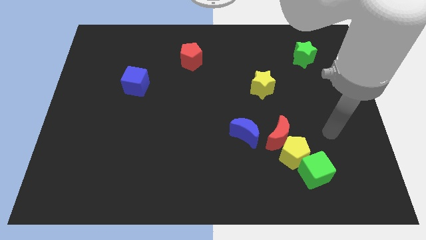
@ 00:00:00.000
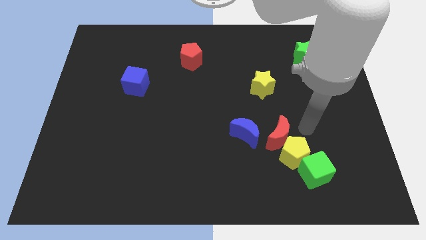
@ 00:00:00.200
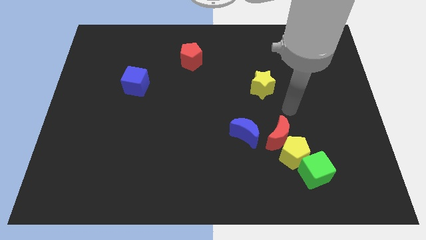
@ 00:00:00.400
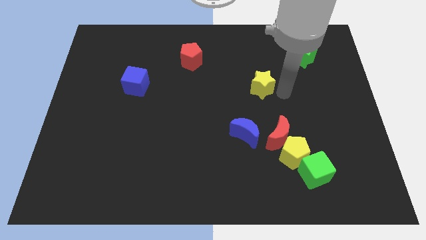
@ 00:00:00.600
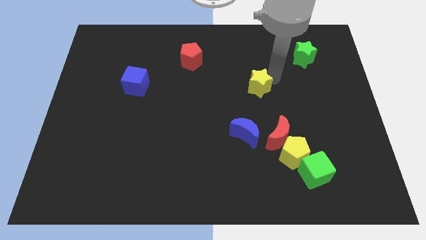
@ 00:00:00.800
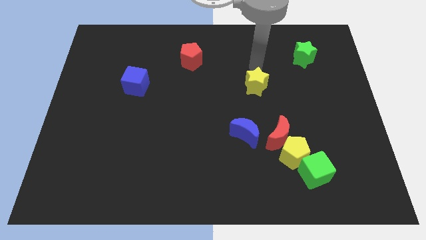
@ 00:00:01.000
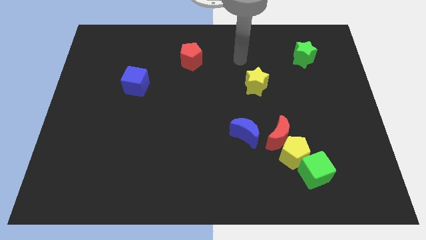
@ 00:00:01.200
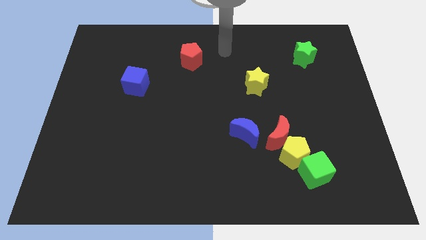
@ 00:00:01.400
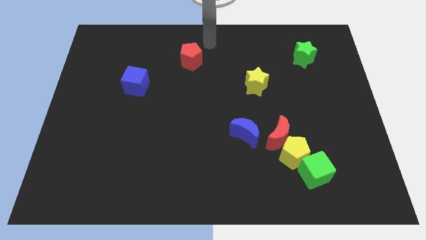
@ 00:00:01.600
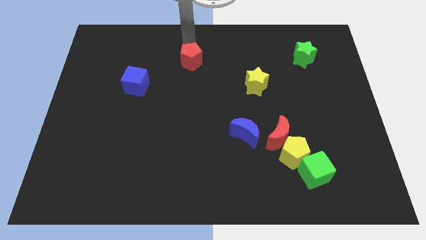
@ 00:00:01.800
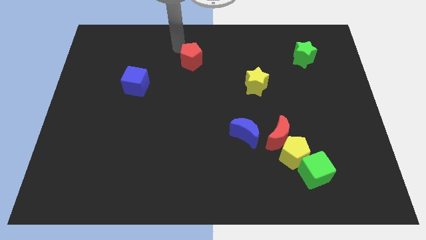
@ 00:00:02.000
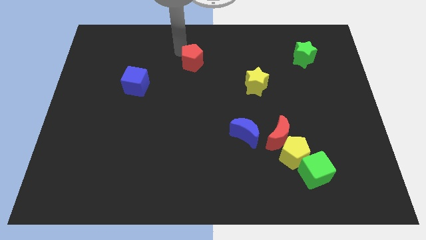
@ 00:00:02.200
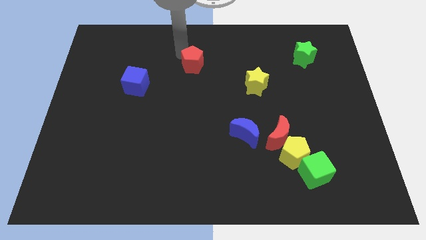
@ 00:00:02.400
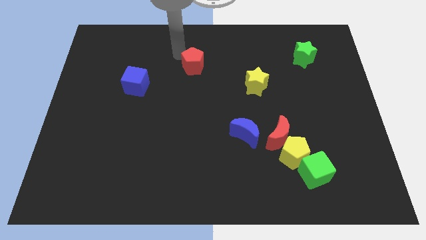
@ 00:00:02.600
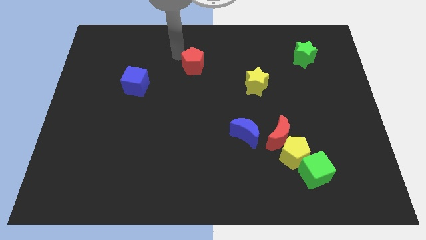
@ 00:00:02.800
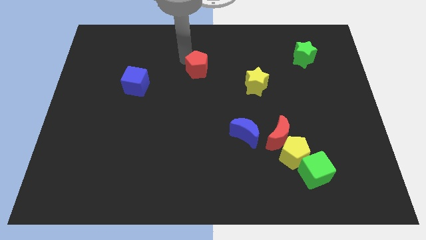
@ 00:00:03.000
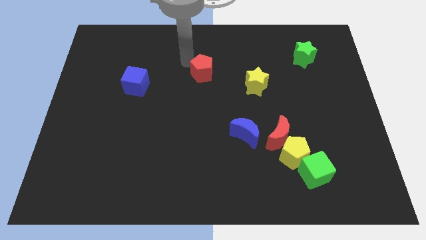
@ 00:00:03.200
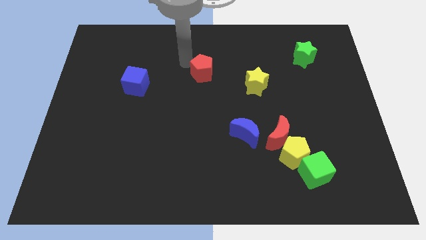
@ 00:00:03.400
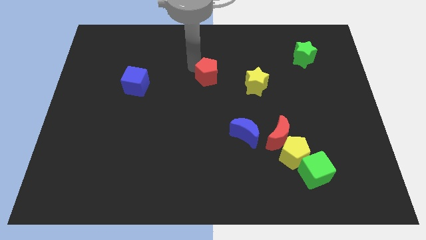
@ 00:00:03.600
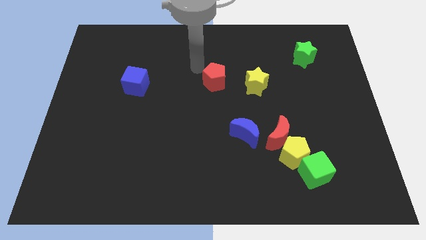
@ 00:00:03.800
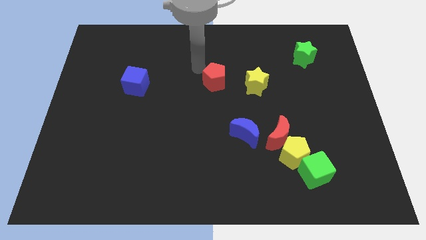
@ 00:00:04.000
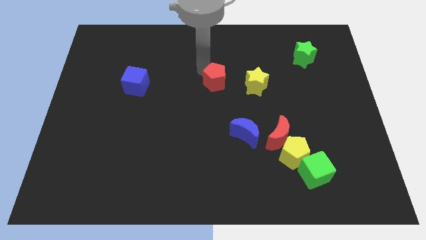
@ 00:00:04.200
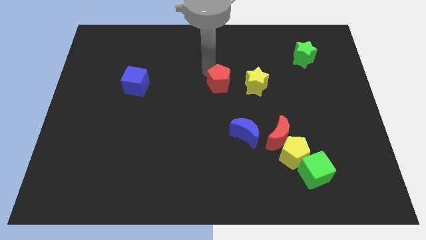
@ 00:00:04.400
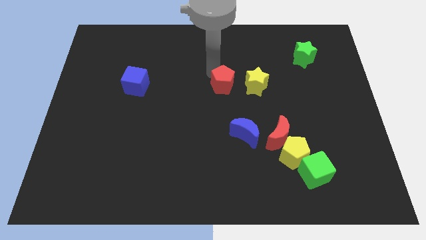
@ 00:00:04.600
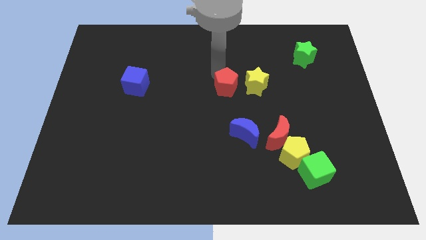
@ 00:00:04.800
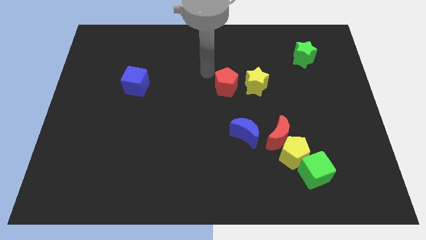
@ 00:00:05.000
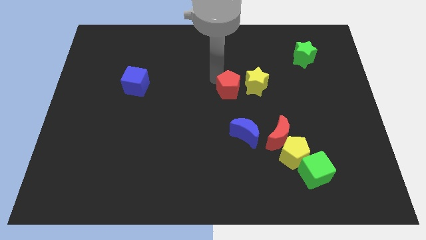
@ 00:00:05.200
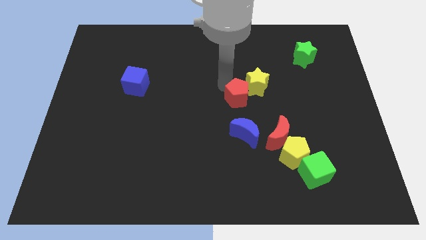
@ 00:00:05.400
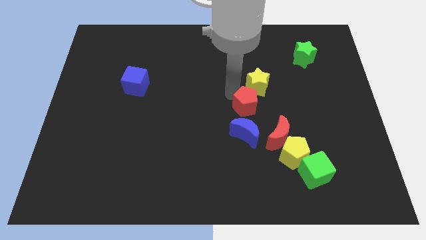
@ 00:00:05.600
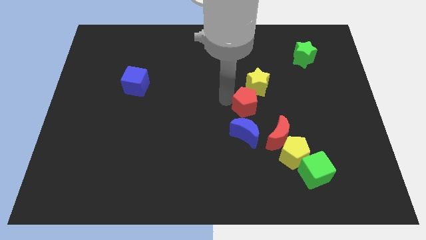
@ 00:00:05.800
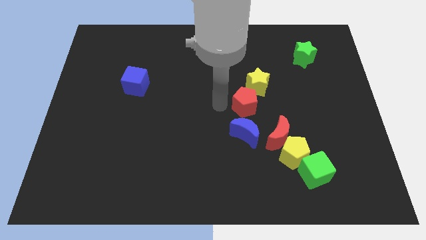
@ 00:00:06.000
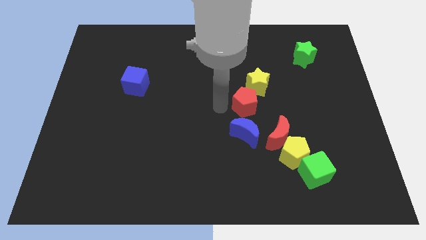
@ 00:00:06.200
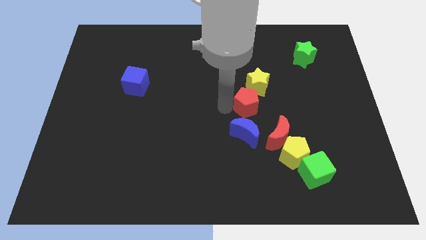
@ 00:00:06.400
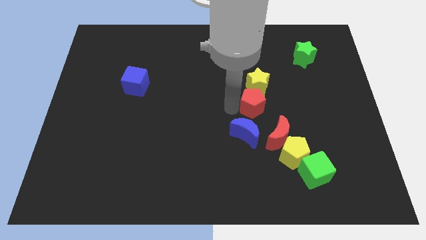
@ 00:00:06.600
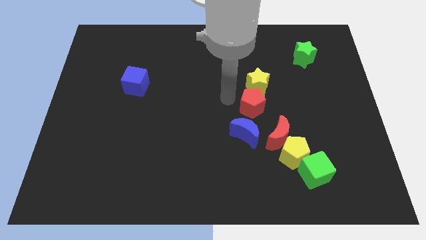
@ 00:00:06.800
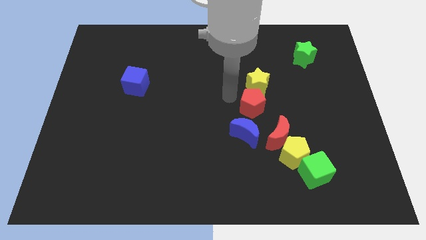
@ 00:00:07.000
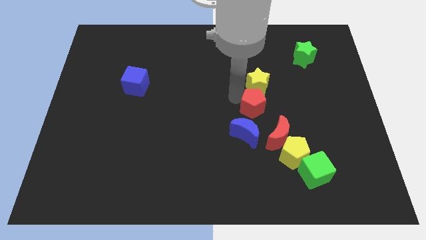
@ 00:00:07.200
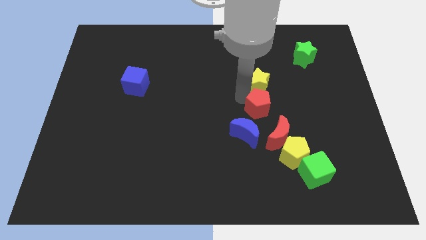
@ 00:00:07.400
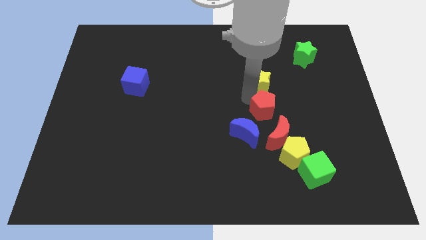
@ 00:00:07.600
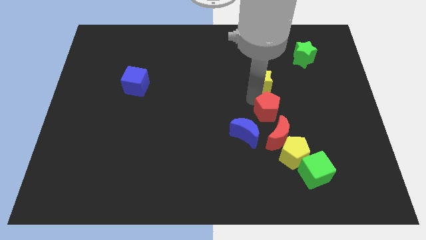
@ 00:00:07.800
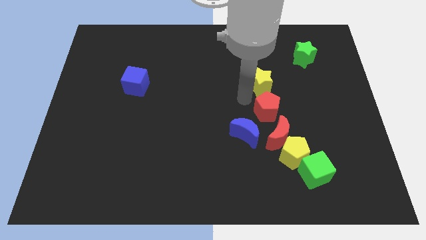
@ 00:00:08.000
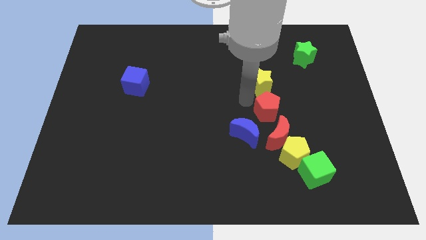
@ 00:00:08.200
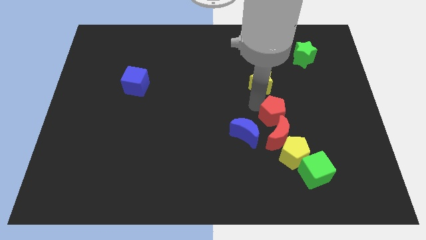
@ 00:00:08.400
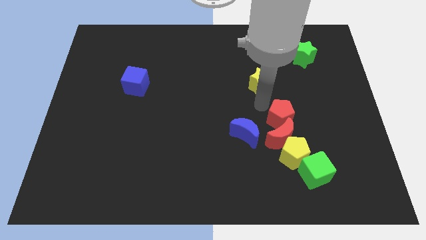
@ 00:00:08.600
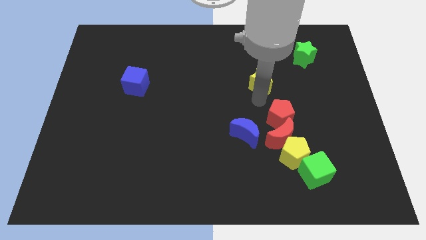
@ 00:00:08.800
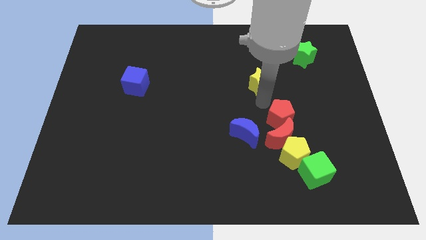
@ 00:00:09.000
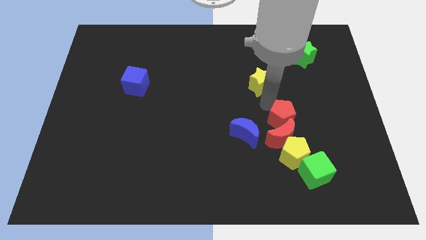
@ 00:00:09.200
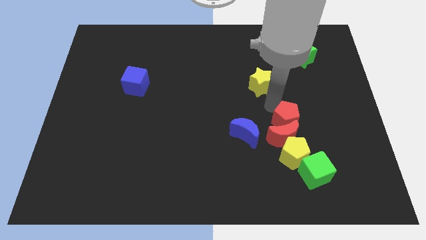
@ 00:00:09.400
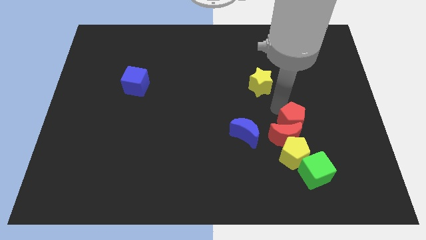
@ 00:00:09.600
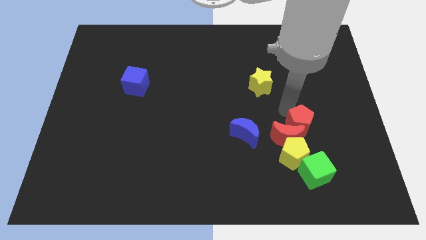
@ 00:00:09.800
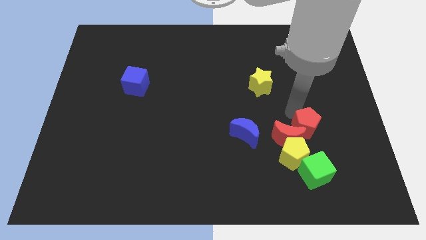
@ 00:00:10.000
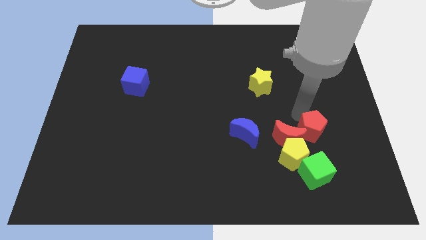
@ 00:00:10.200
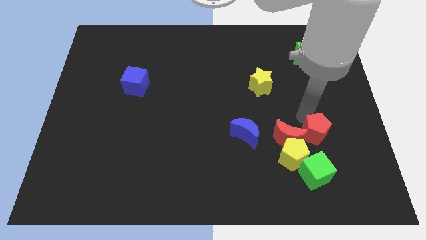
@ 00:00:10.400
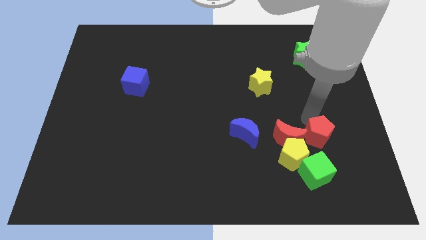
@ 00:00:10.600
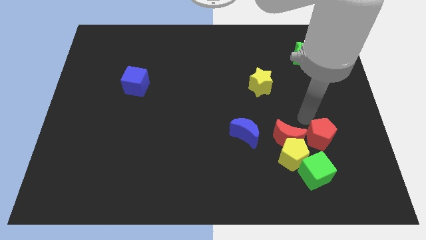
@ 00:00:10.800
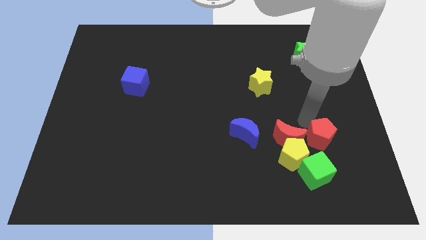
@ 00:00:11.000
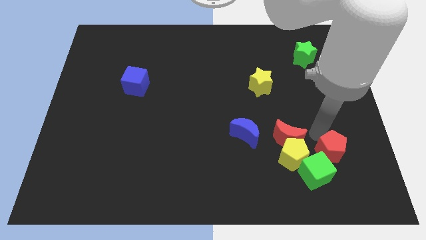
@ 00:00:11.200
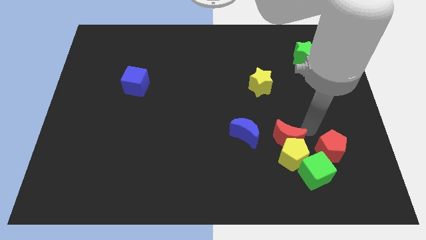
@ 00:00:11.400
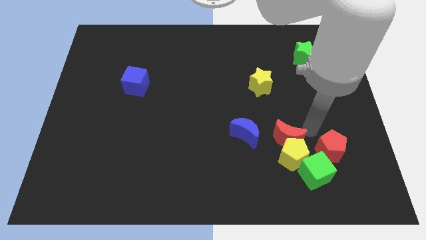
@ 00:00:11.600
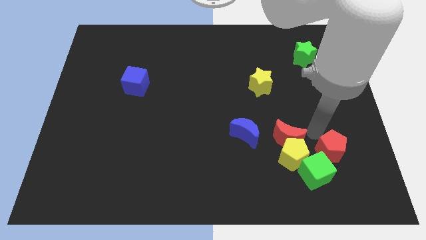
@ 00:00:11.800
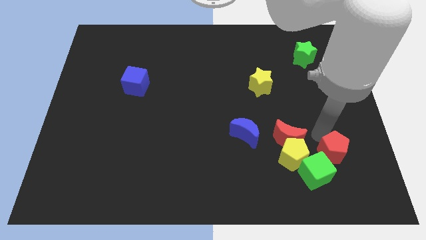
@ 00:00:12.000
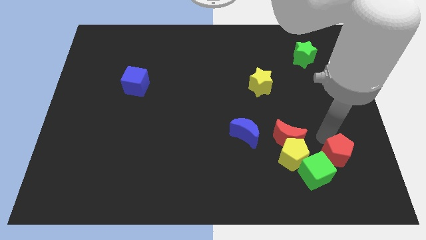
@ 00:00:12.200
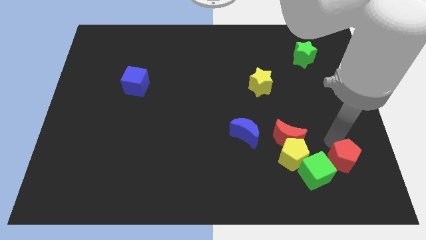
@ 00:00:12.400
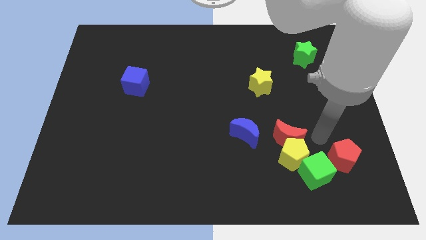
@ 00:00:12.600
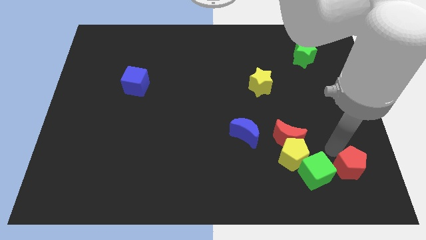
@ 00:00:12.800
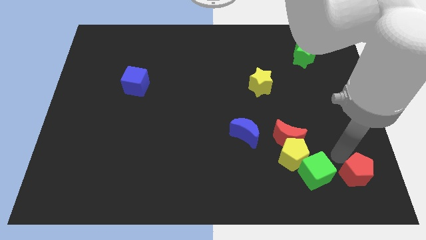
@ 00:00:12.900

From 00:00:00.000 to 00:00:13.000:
push the red pentagon to the bottom right corner

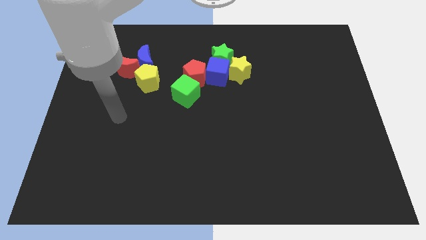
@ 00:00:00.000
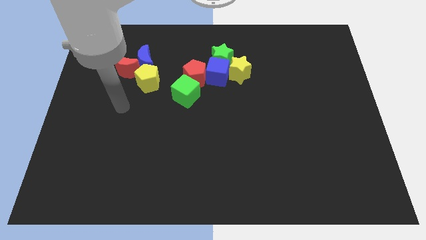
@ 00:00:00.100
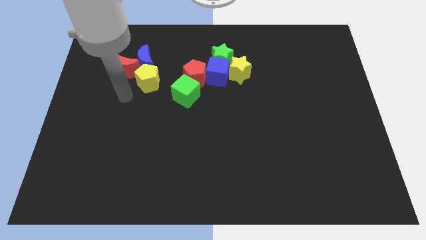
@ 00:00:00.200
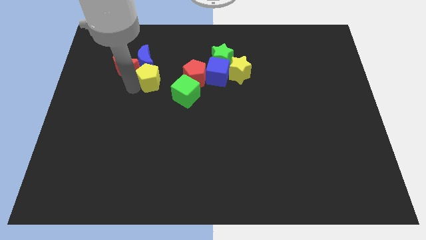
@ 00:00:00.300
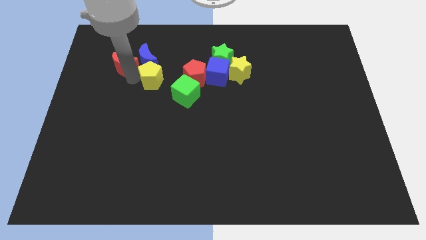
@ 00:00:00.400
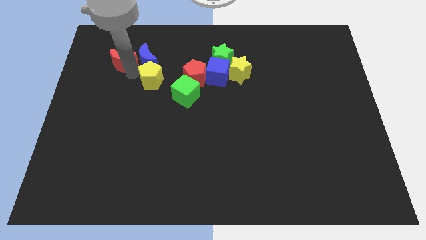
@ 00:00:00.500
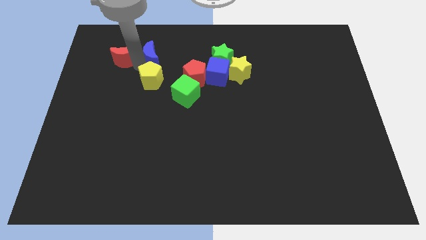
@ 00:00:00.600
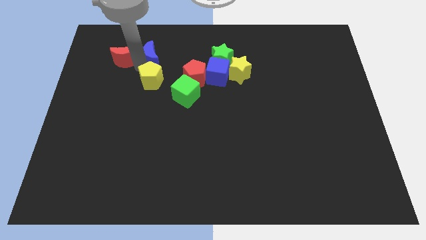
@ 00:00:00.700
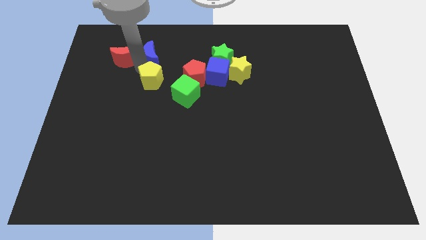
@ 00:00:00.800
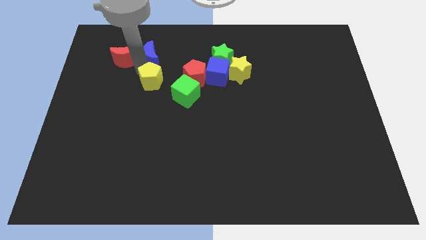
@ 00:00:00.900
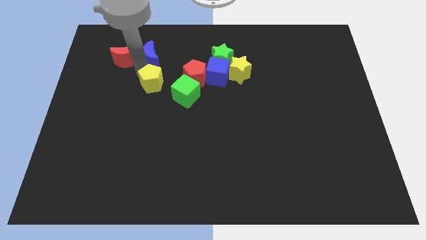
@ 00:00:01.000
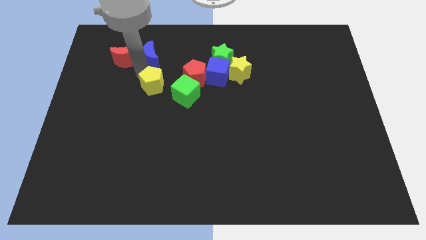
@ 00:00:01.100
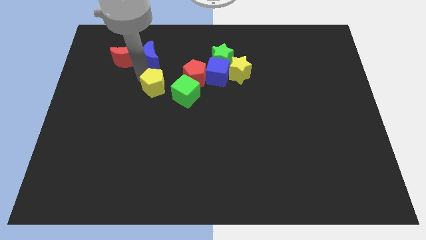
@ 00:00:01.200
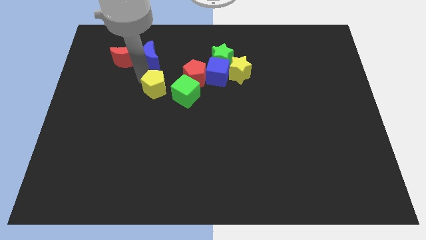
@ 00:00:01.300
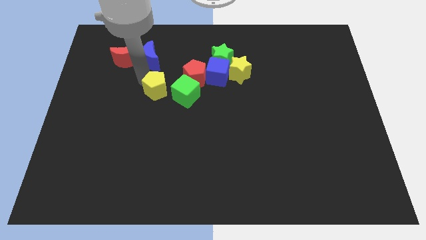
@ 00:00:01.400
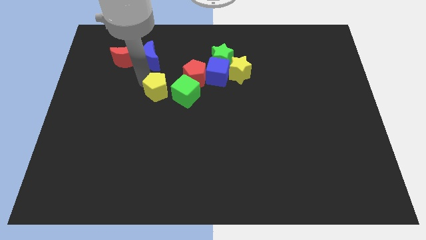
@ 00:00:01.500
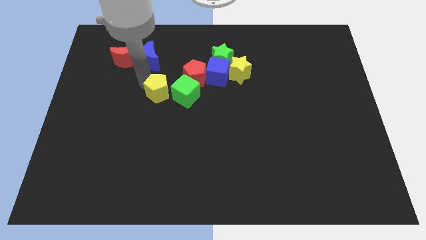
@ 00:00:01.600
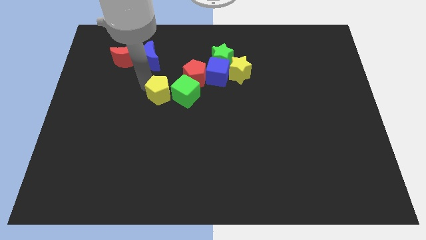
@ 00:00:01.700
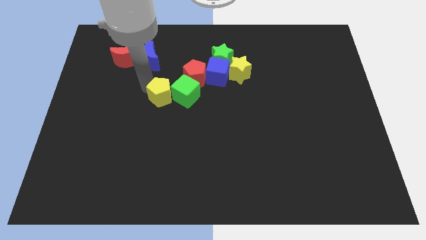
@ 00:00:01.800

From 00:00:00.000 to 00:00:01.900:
move the yellow pentagon to the middle of the board
